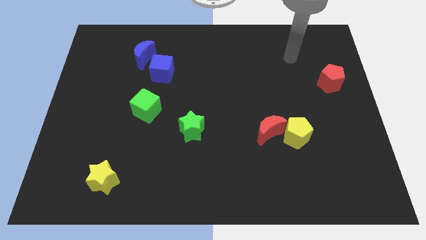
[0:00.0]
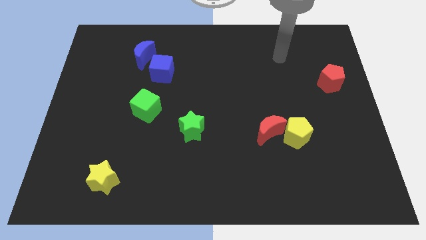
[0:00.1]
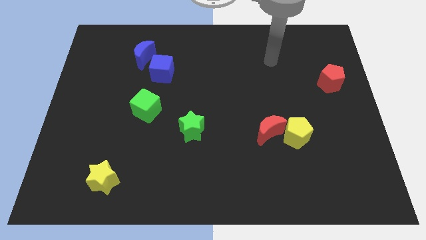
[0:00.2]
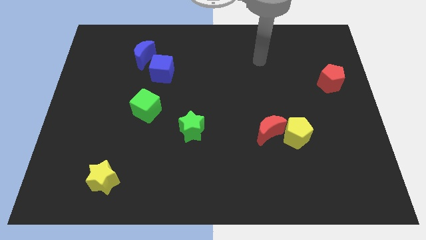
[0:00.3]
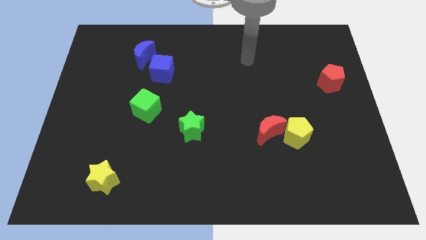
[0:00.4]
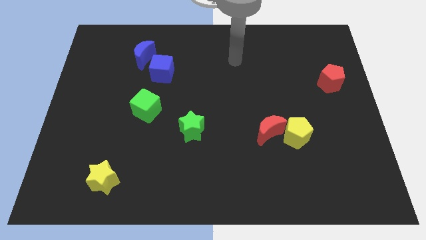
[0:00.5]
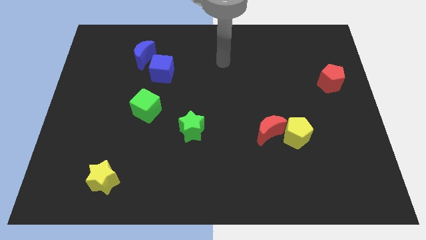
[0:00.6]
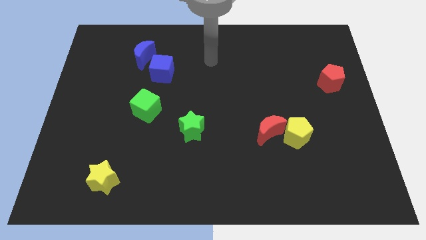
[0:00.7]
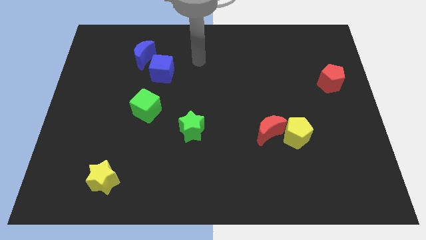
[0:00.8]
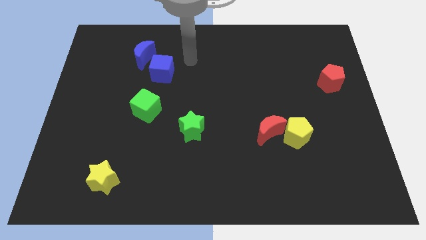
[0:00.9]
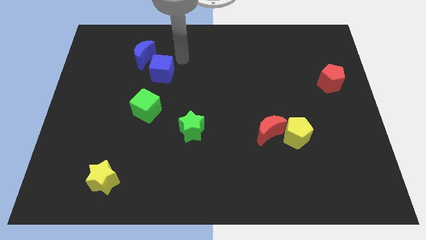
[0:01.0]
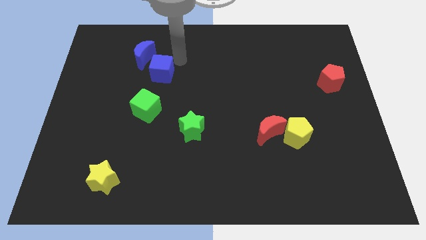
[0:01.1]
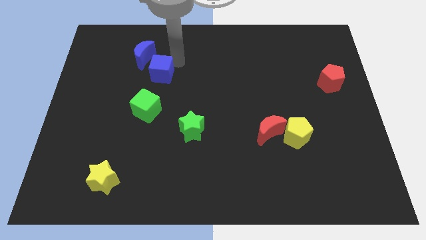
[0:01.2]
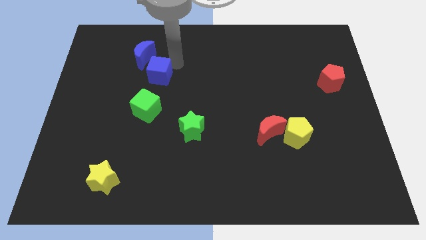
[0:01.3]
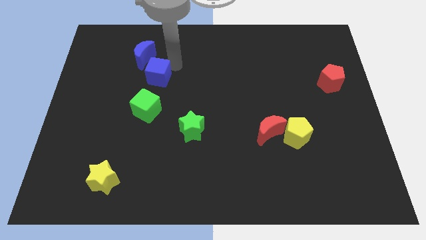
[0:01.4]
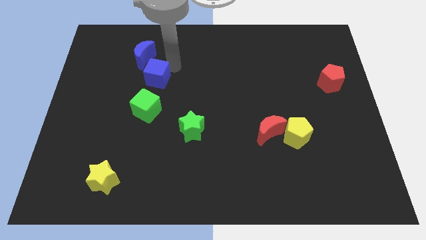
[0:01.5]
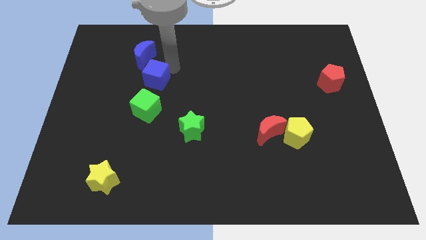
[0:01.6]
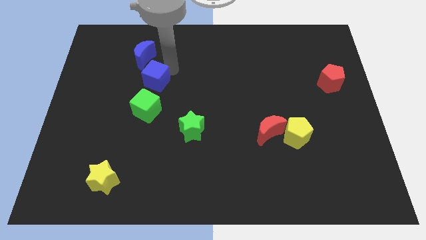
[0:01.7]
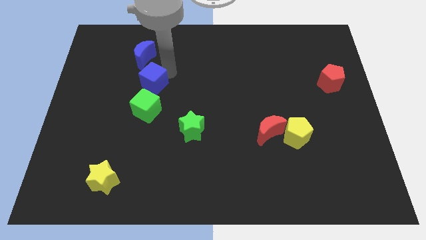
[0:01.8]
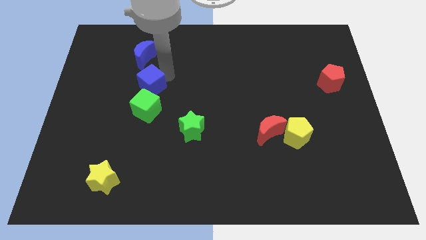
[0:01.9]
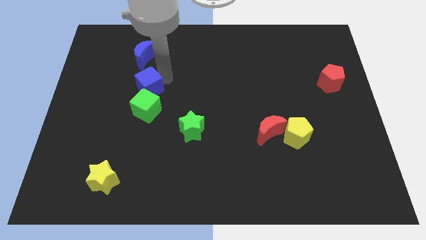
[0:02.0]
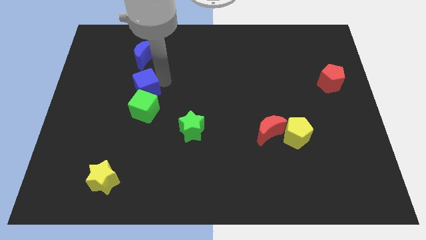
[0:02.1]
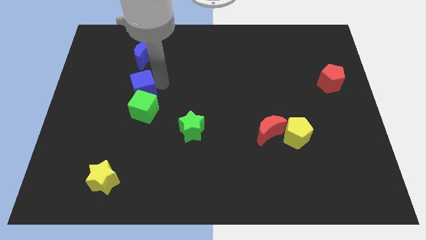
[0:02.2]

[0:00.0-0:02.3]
slide the blue cube down and then left a little

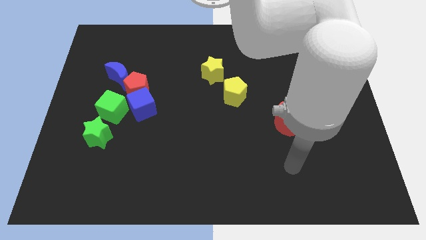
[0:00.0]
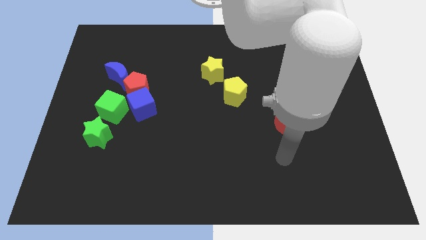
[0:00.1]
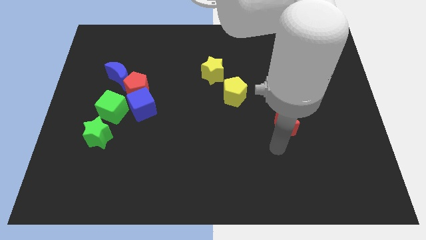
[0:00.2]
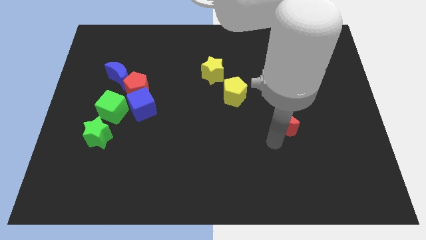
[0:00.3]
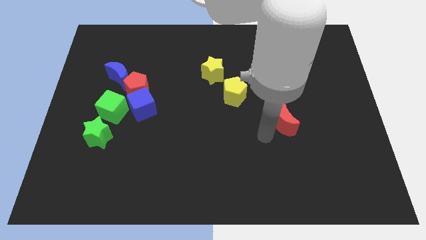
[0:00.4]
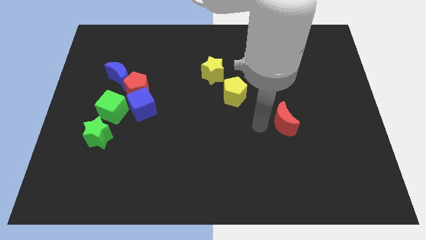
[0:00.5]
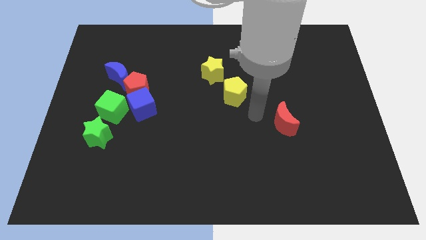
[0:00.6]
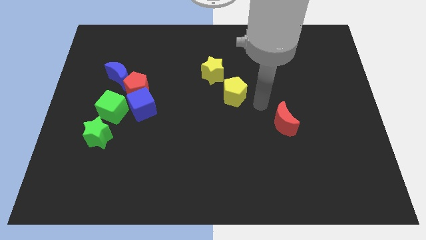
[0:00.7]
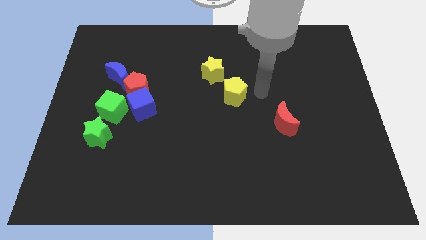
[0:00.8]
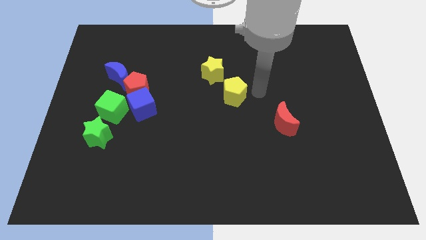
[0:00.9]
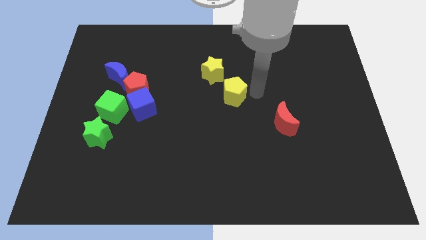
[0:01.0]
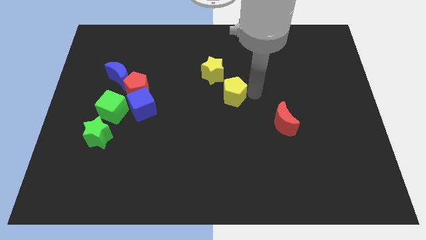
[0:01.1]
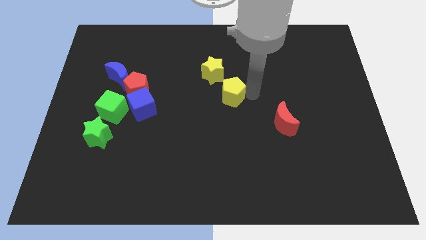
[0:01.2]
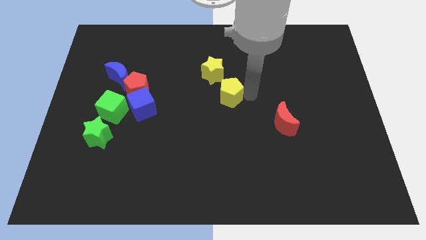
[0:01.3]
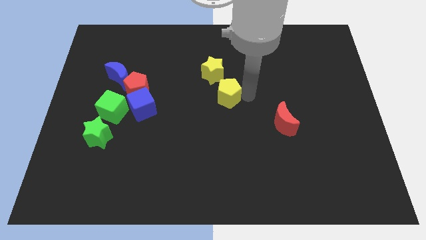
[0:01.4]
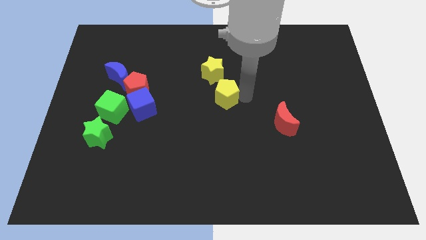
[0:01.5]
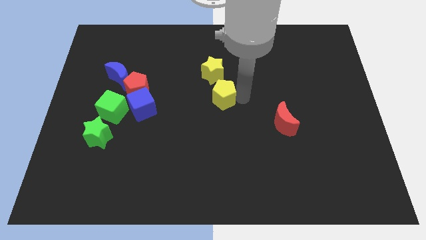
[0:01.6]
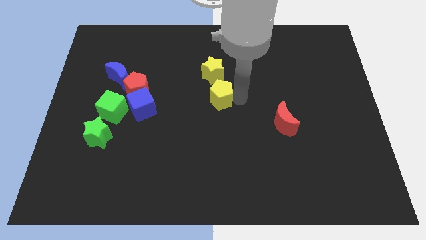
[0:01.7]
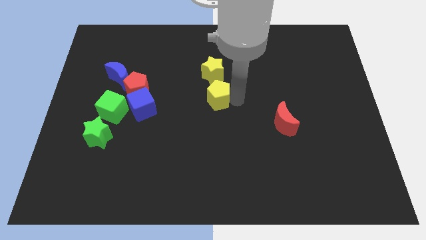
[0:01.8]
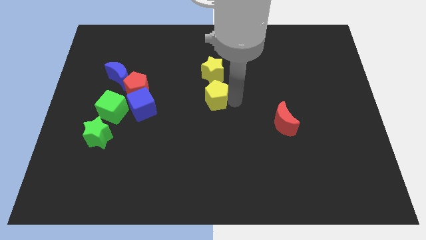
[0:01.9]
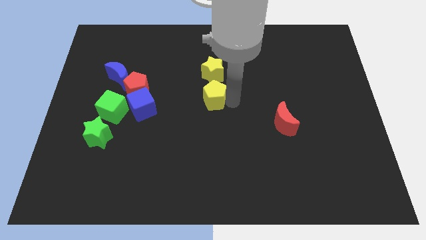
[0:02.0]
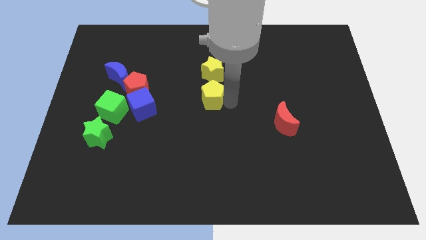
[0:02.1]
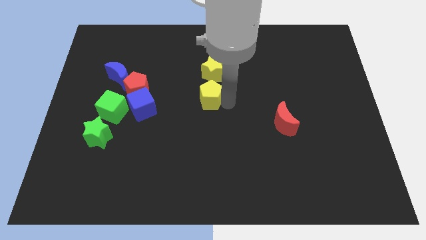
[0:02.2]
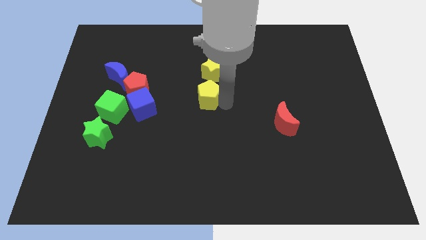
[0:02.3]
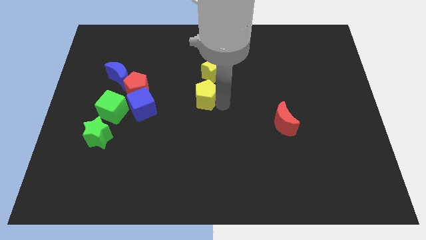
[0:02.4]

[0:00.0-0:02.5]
slide the yellow pentagon somewhat left

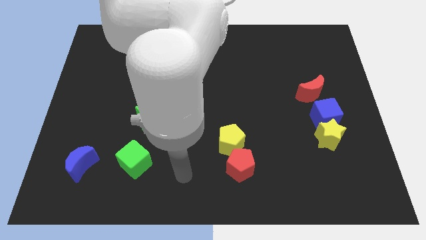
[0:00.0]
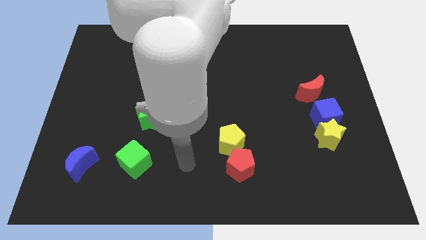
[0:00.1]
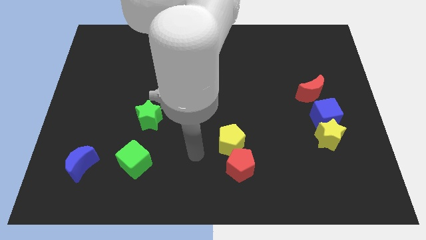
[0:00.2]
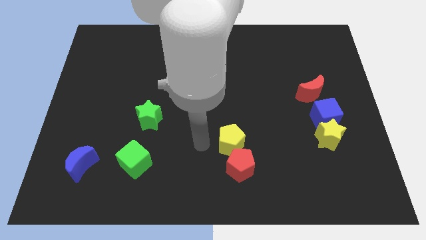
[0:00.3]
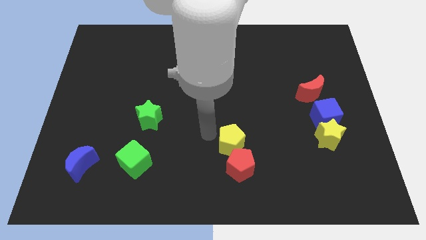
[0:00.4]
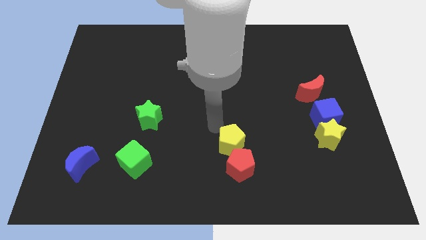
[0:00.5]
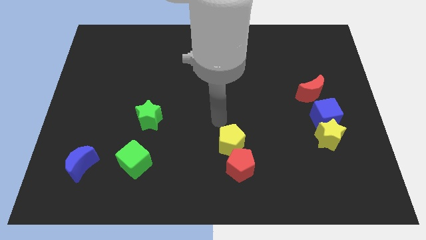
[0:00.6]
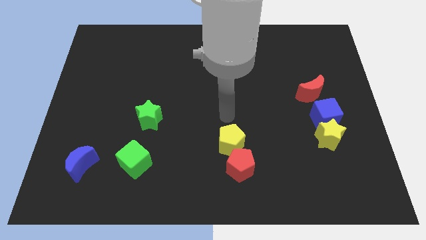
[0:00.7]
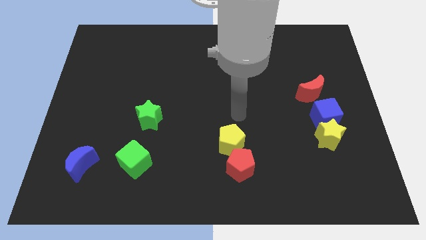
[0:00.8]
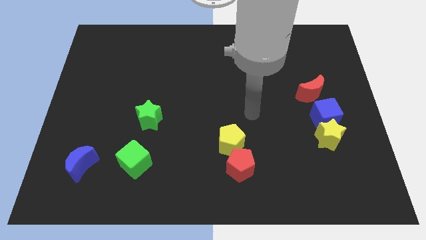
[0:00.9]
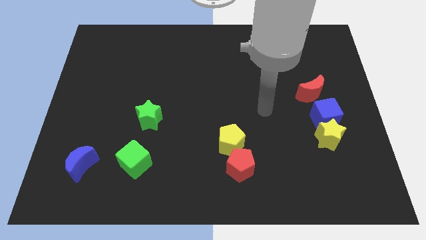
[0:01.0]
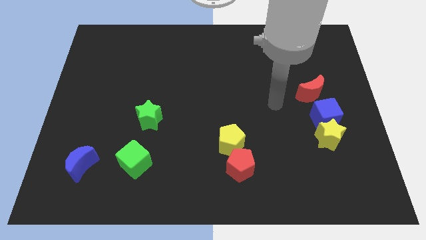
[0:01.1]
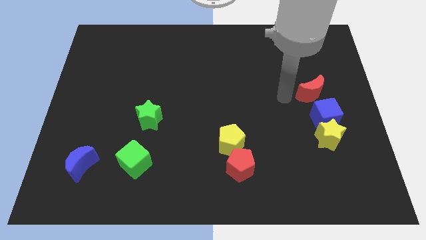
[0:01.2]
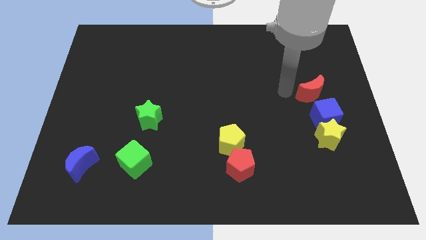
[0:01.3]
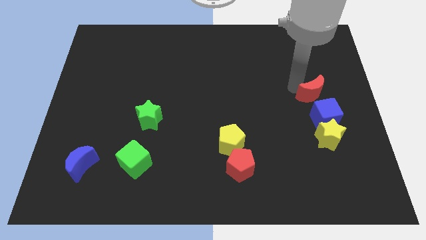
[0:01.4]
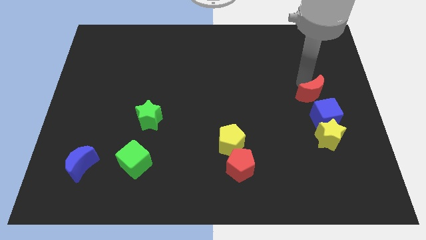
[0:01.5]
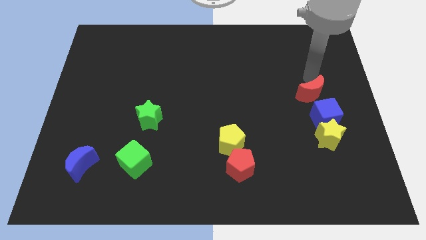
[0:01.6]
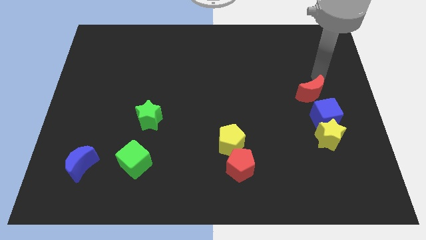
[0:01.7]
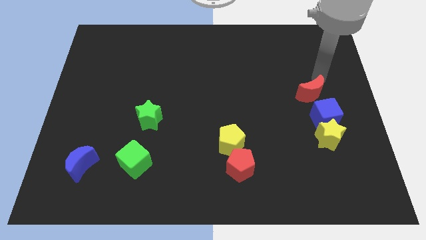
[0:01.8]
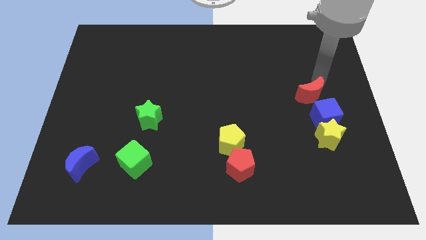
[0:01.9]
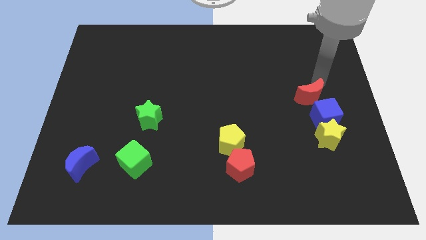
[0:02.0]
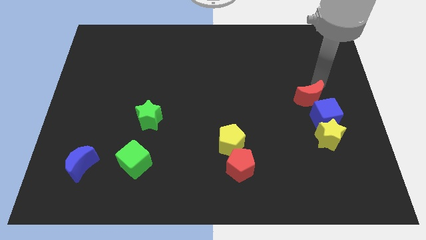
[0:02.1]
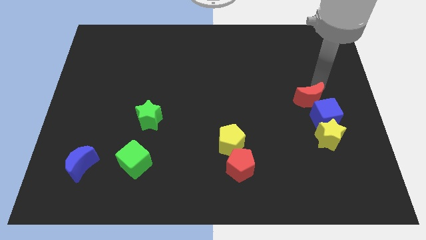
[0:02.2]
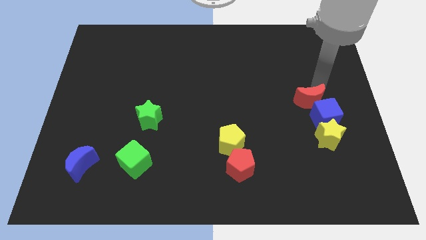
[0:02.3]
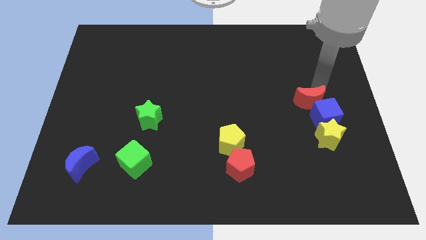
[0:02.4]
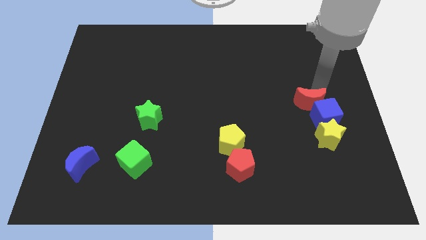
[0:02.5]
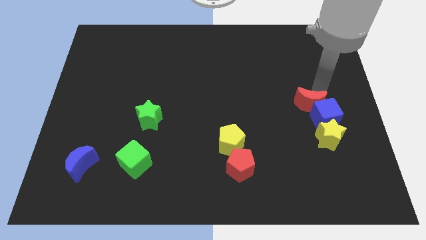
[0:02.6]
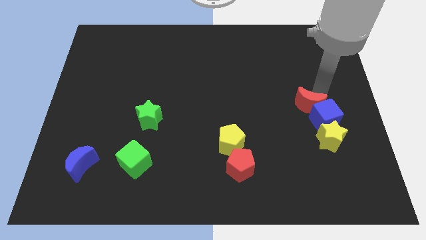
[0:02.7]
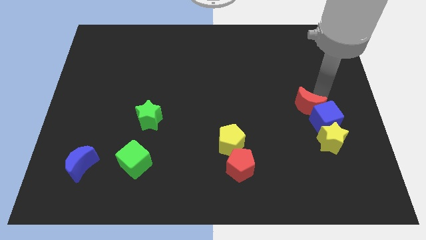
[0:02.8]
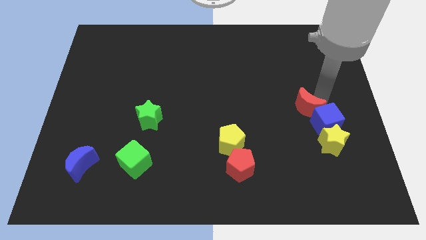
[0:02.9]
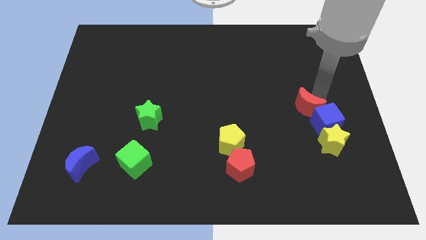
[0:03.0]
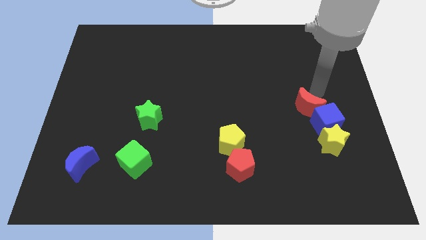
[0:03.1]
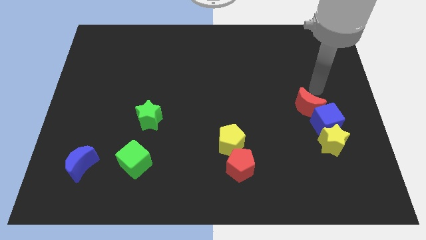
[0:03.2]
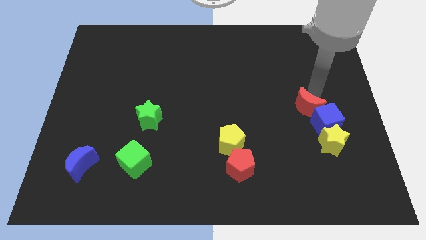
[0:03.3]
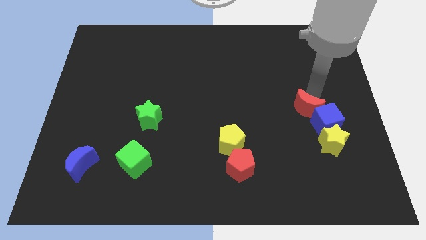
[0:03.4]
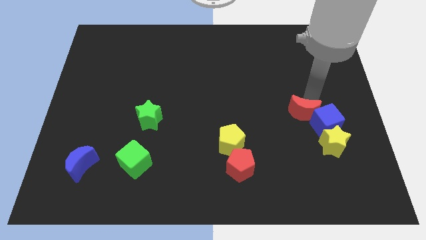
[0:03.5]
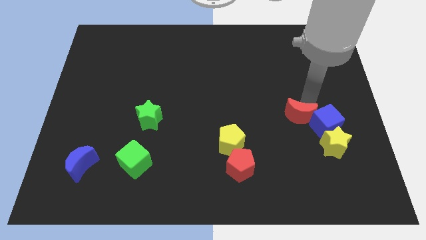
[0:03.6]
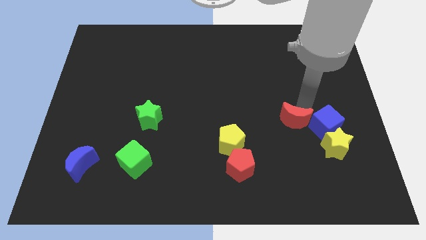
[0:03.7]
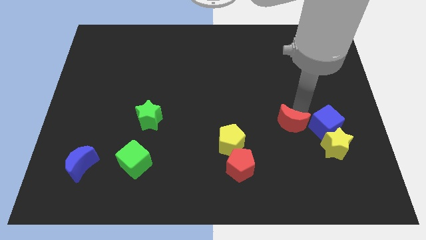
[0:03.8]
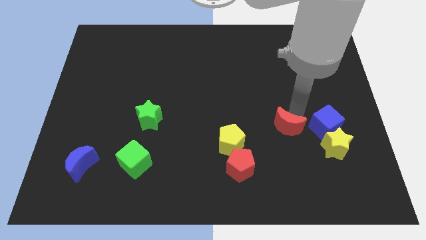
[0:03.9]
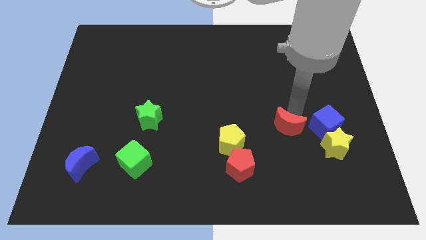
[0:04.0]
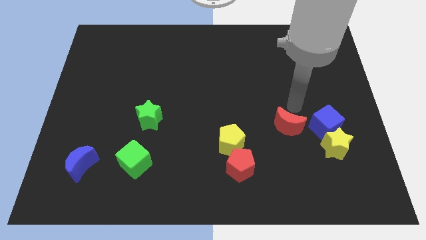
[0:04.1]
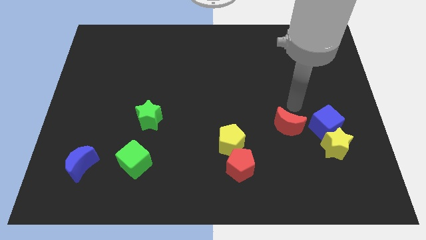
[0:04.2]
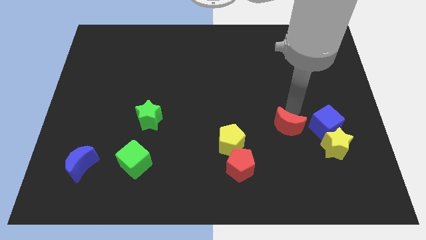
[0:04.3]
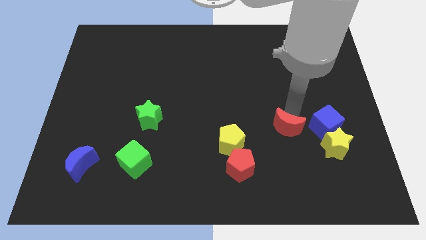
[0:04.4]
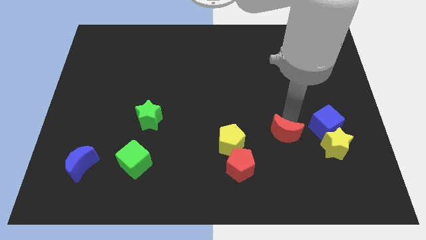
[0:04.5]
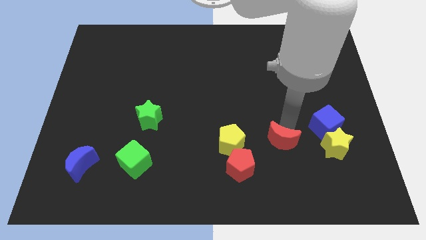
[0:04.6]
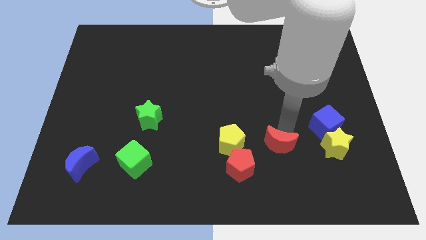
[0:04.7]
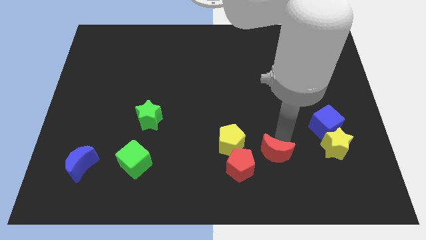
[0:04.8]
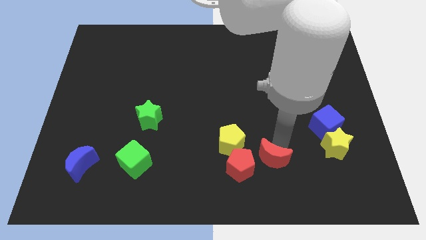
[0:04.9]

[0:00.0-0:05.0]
slide the red moon diagonally downwards and left
